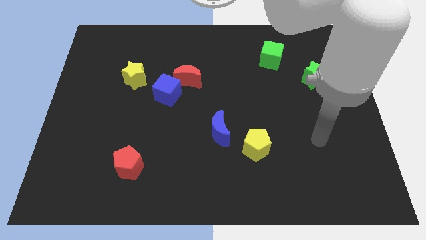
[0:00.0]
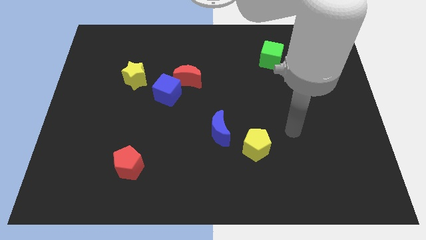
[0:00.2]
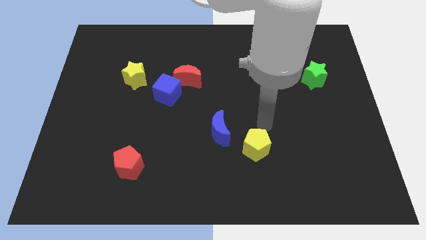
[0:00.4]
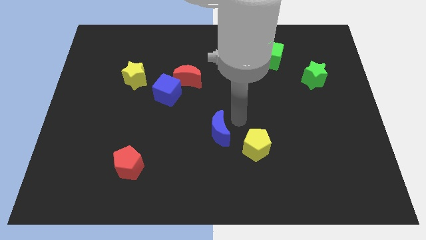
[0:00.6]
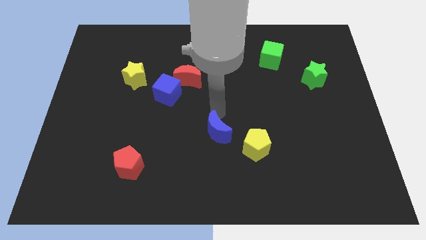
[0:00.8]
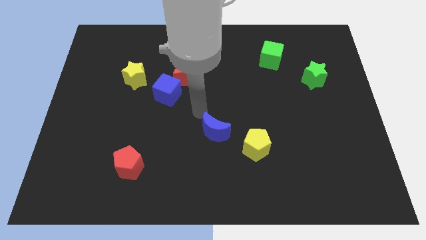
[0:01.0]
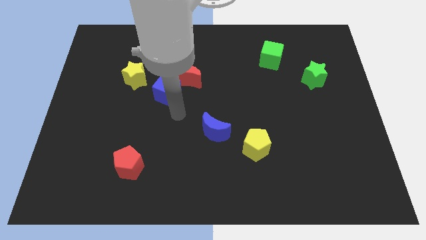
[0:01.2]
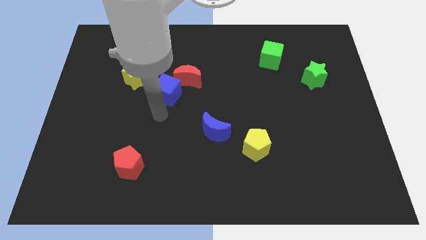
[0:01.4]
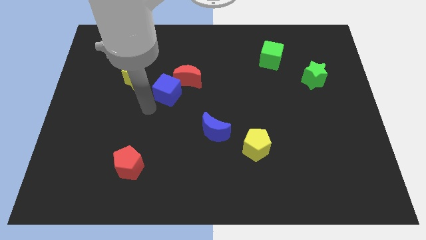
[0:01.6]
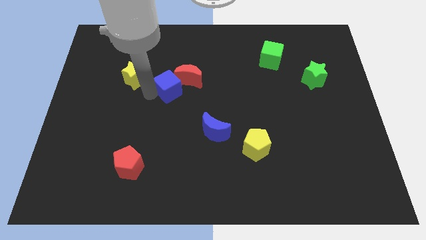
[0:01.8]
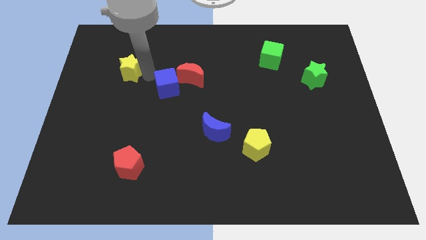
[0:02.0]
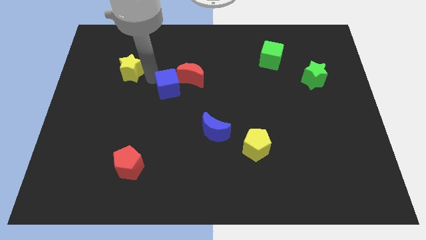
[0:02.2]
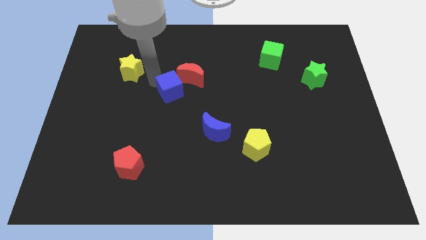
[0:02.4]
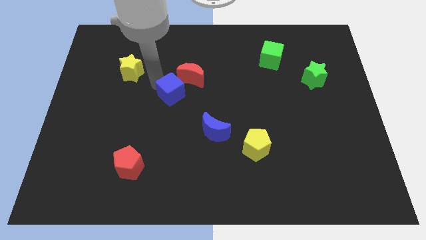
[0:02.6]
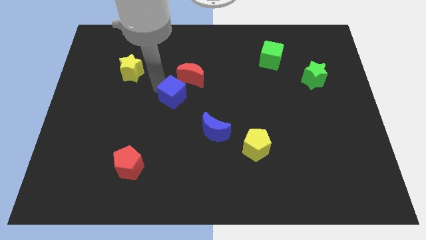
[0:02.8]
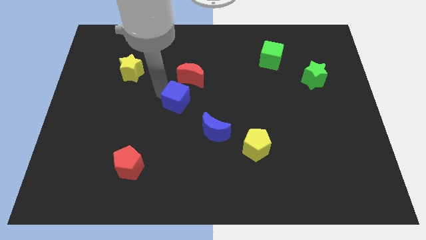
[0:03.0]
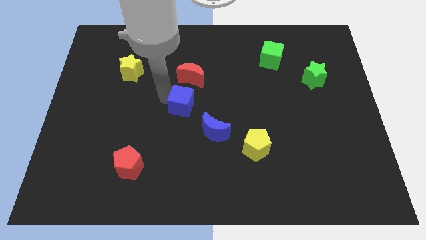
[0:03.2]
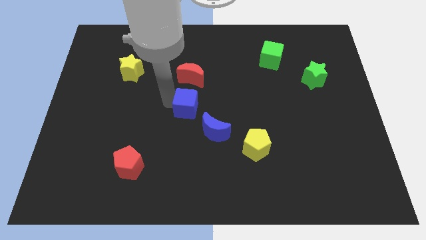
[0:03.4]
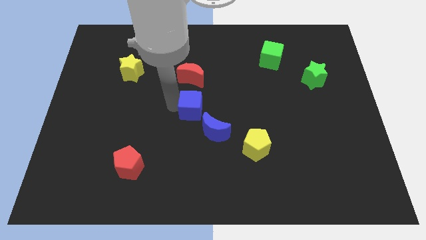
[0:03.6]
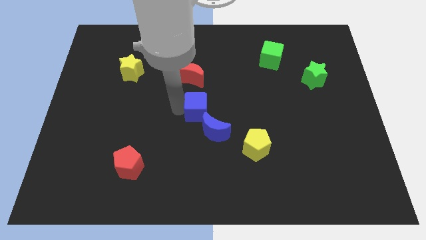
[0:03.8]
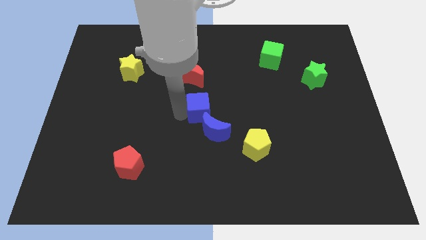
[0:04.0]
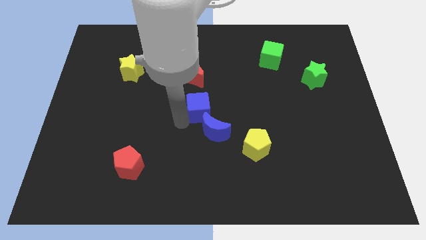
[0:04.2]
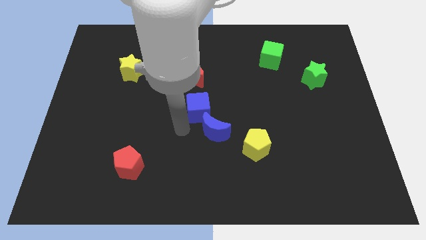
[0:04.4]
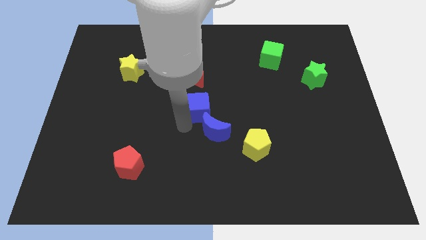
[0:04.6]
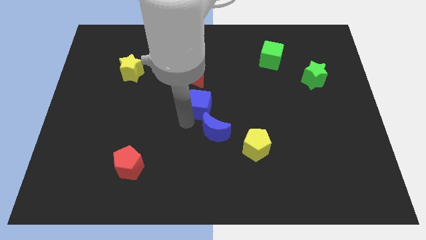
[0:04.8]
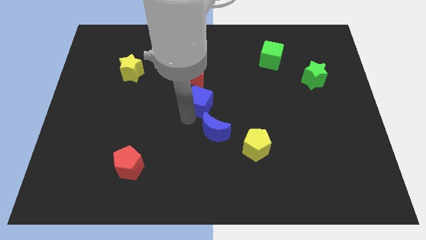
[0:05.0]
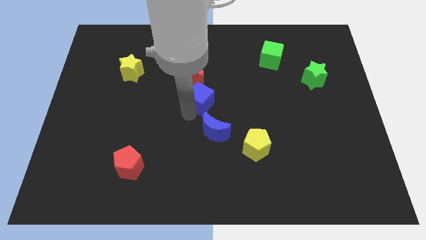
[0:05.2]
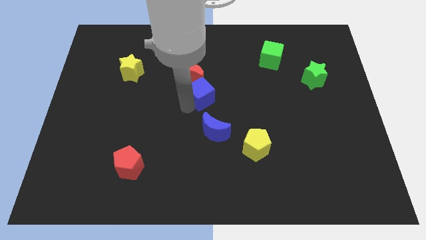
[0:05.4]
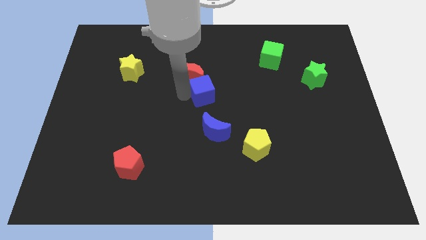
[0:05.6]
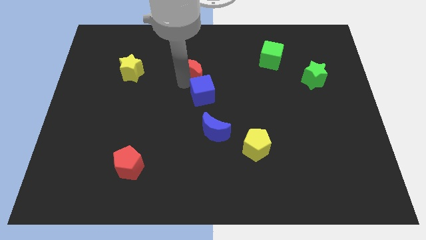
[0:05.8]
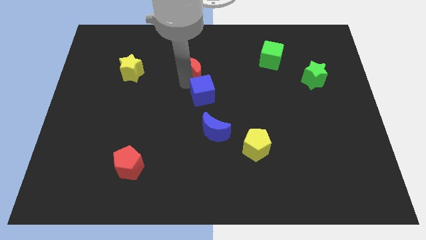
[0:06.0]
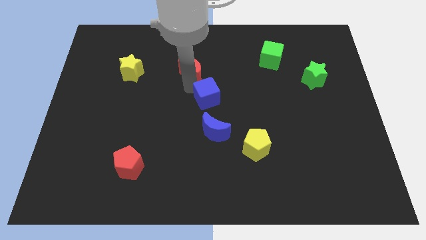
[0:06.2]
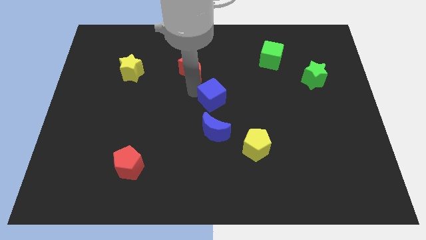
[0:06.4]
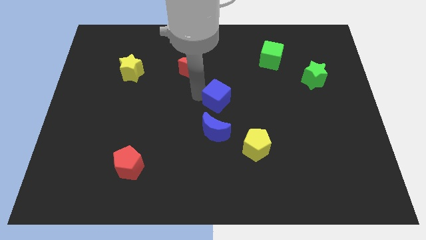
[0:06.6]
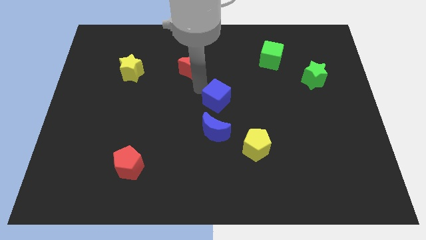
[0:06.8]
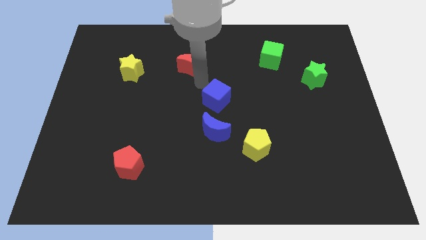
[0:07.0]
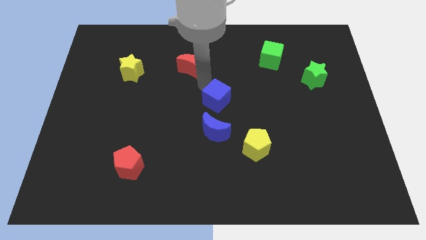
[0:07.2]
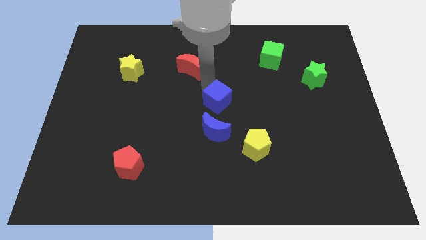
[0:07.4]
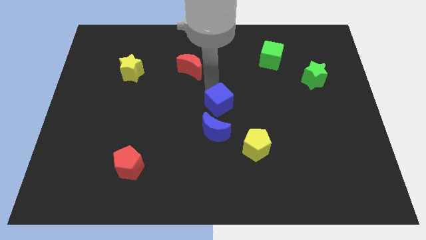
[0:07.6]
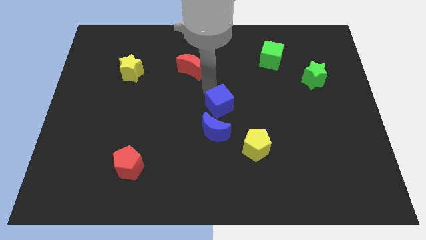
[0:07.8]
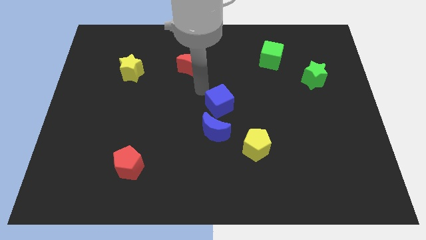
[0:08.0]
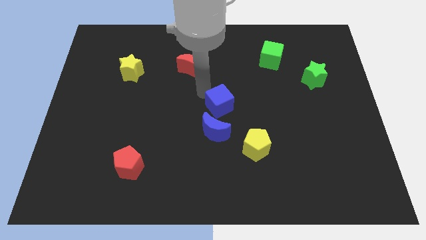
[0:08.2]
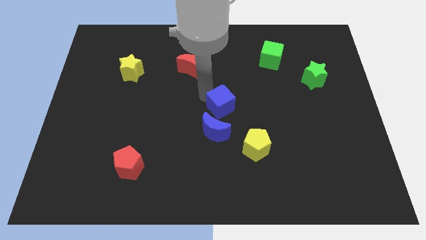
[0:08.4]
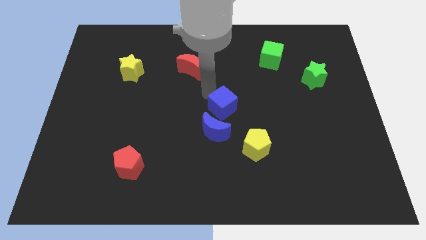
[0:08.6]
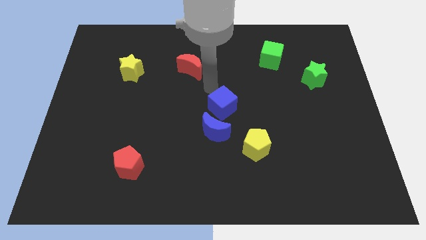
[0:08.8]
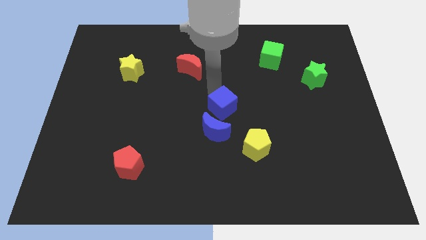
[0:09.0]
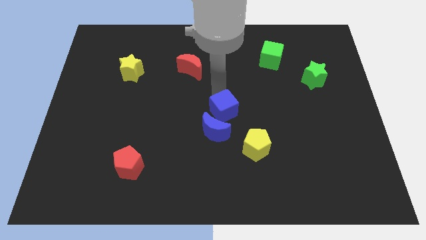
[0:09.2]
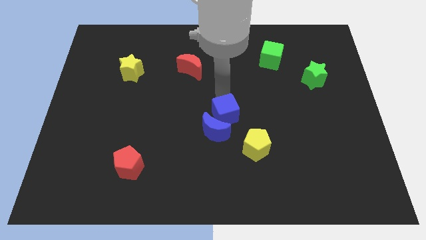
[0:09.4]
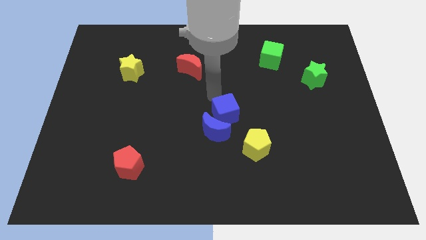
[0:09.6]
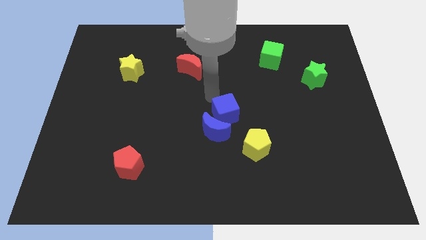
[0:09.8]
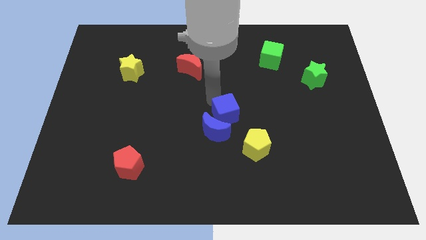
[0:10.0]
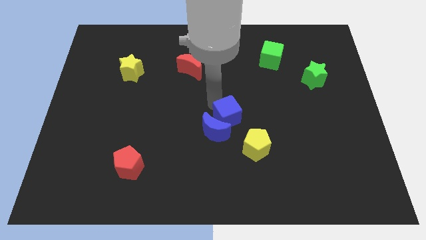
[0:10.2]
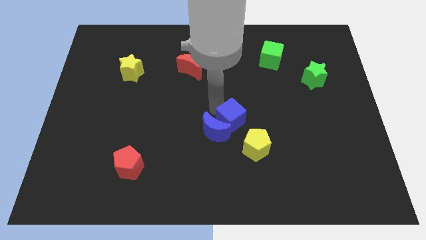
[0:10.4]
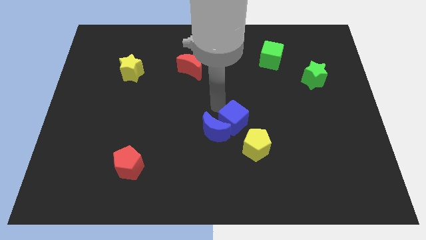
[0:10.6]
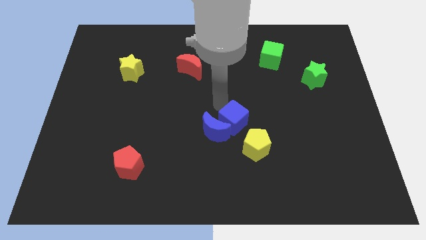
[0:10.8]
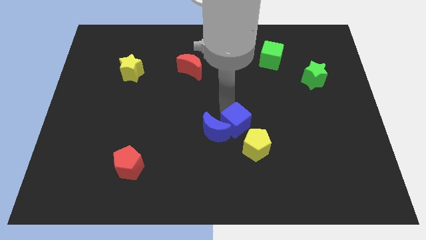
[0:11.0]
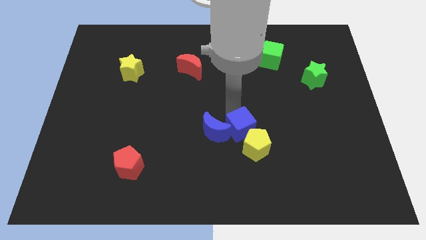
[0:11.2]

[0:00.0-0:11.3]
push the blue cube towards the yellow pentagon

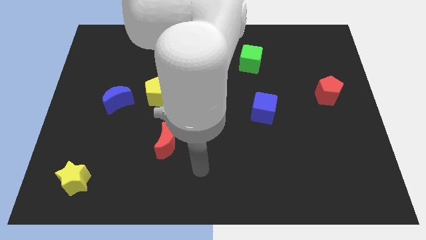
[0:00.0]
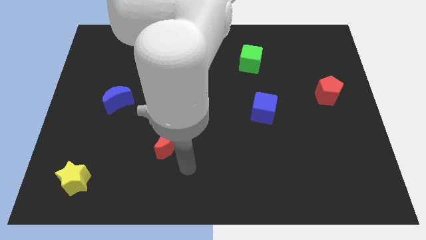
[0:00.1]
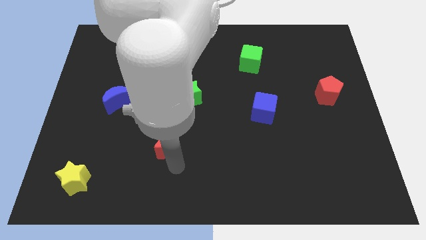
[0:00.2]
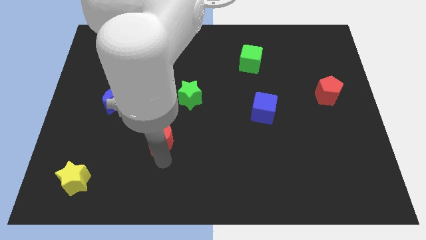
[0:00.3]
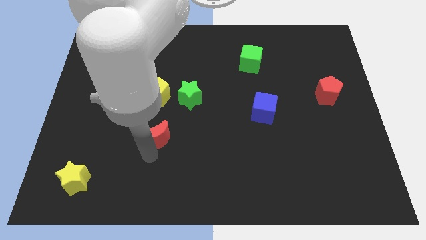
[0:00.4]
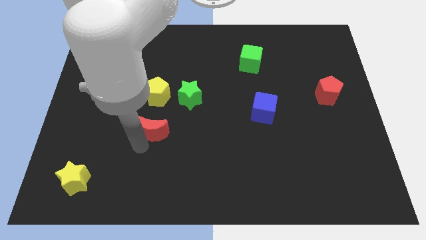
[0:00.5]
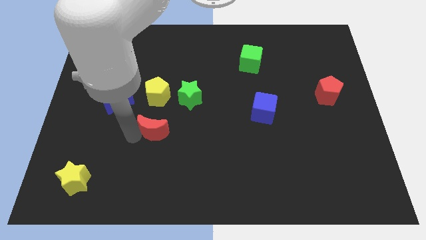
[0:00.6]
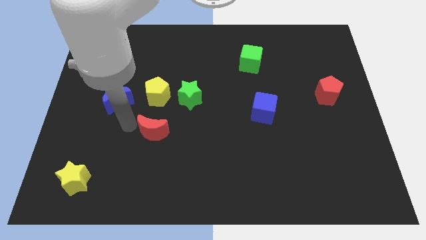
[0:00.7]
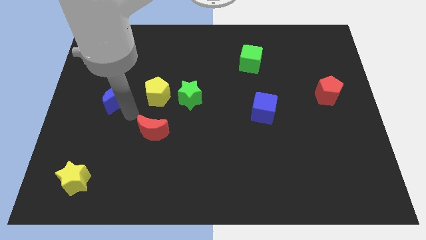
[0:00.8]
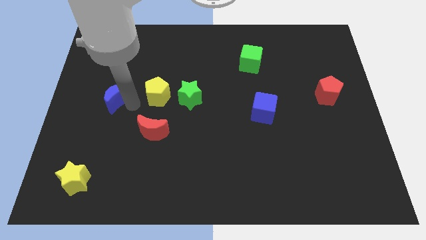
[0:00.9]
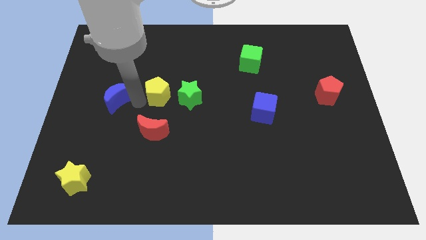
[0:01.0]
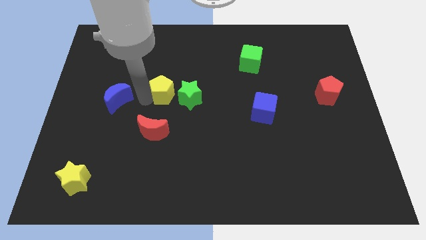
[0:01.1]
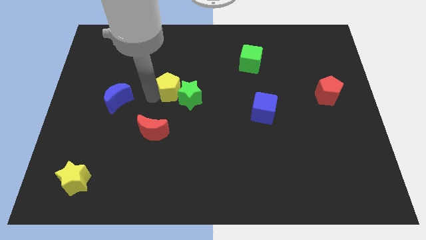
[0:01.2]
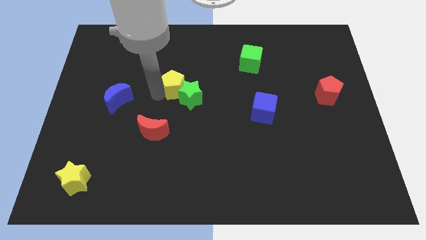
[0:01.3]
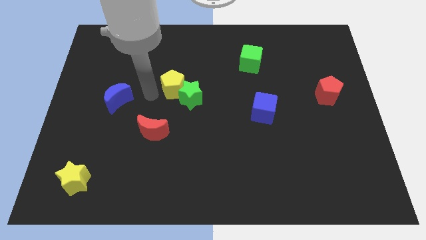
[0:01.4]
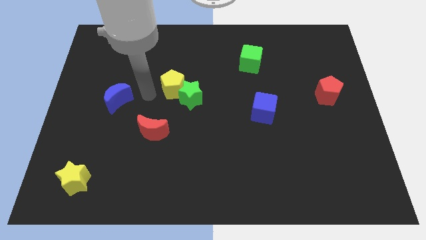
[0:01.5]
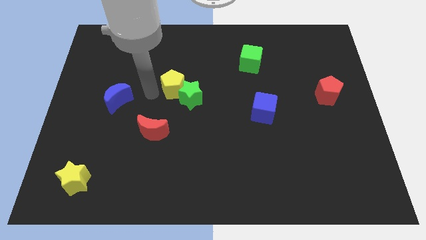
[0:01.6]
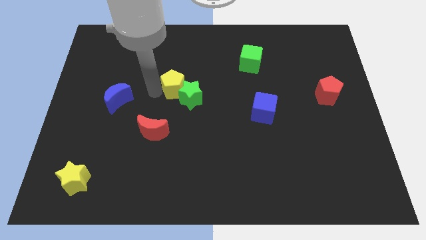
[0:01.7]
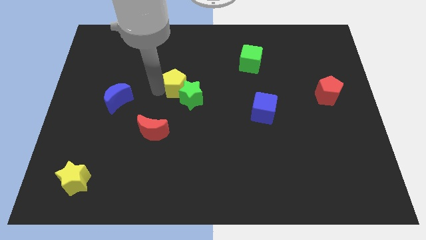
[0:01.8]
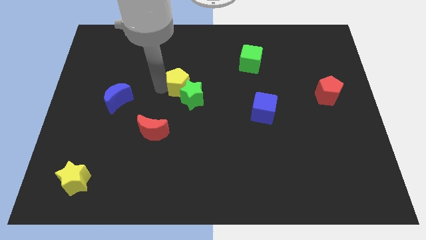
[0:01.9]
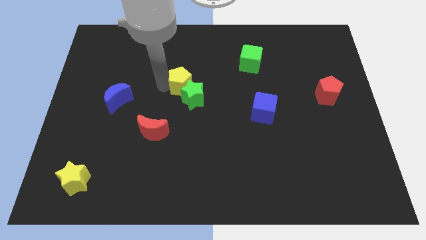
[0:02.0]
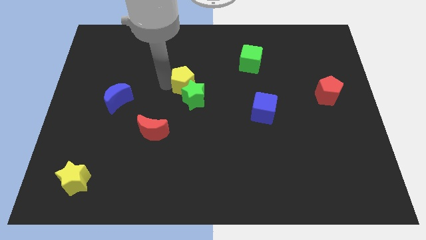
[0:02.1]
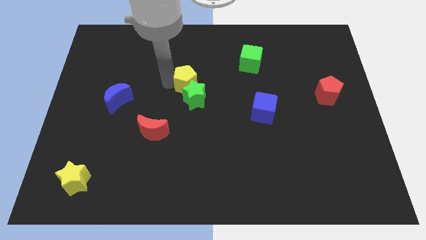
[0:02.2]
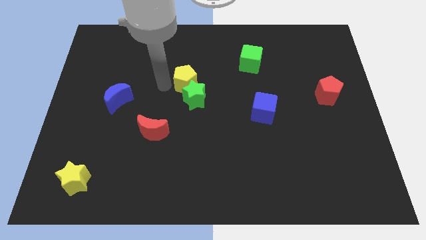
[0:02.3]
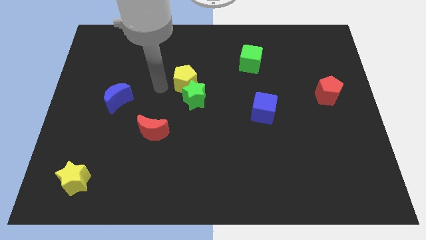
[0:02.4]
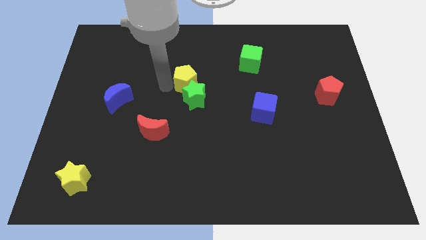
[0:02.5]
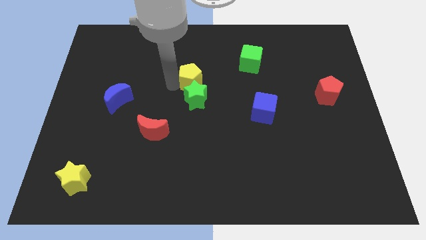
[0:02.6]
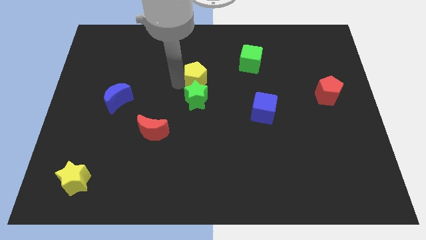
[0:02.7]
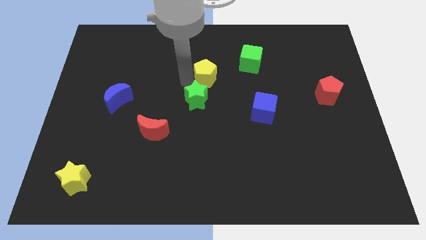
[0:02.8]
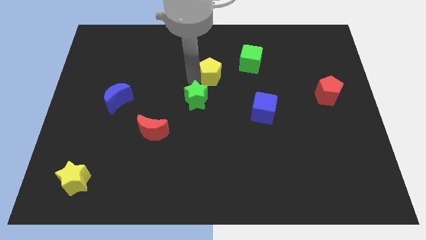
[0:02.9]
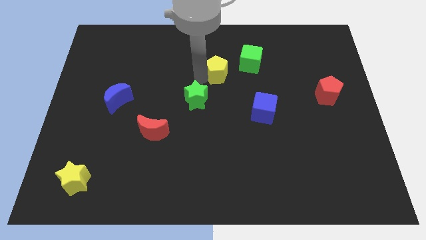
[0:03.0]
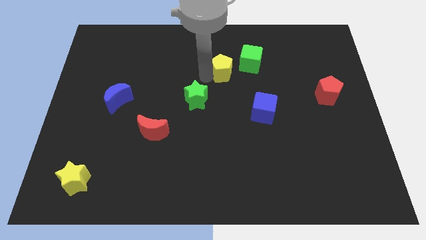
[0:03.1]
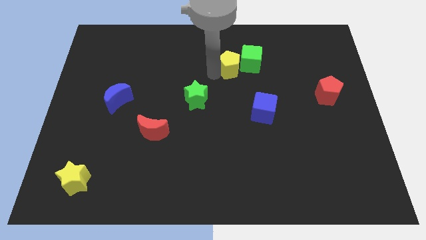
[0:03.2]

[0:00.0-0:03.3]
move the yellow pentagon to the green cube
